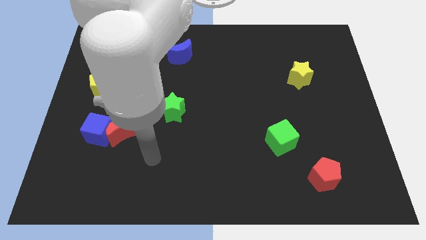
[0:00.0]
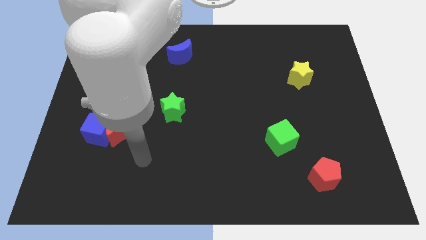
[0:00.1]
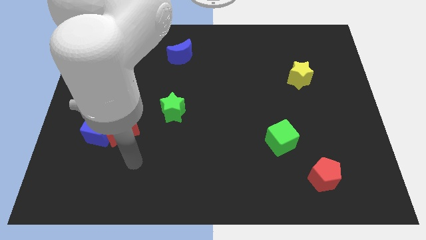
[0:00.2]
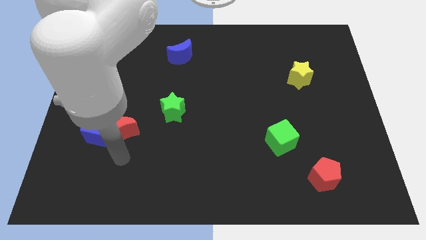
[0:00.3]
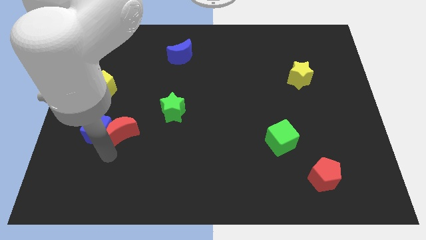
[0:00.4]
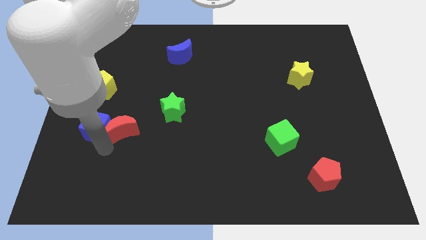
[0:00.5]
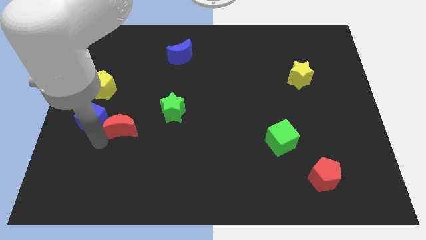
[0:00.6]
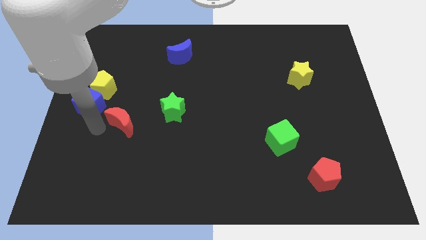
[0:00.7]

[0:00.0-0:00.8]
separate the red moon from the blue cube

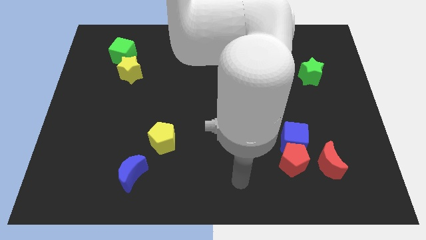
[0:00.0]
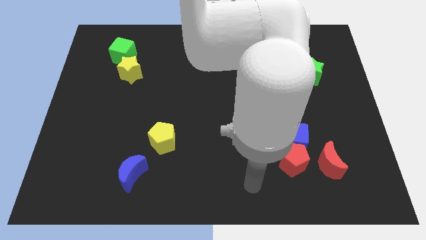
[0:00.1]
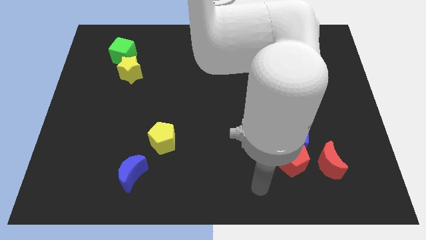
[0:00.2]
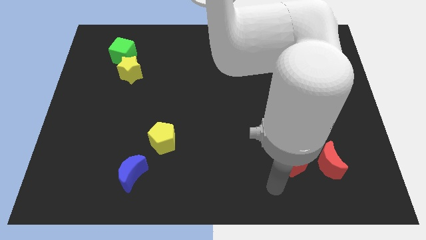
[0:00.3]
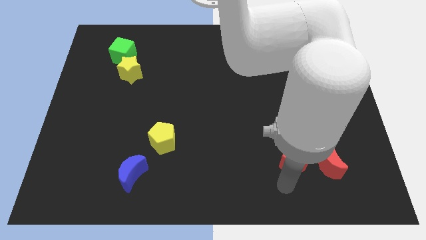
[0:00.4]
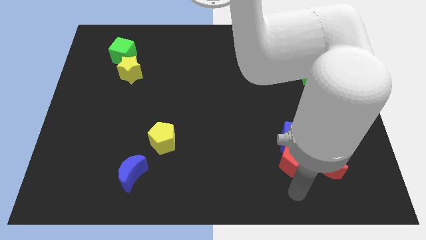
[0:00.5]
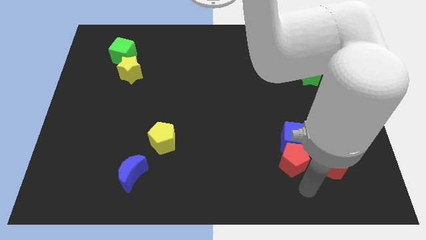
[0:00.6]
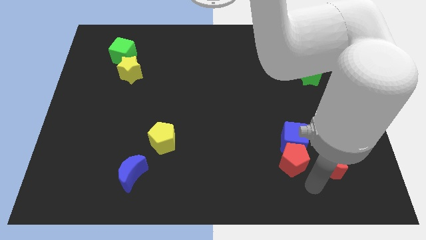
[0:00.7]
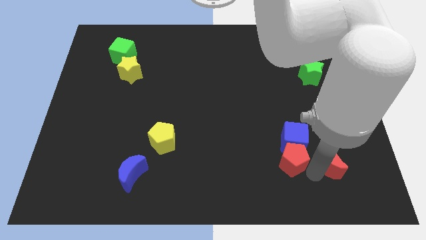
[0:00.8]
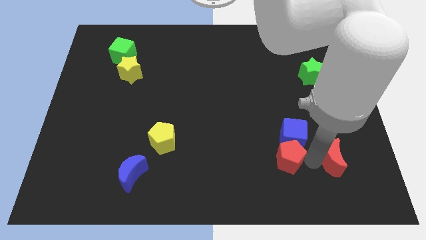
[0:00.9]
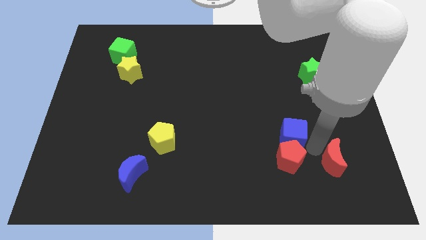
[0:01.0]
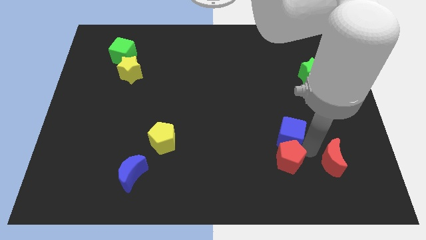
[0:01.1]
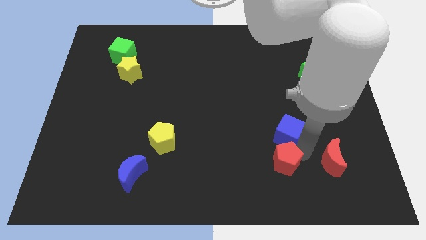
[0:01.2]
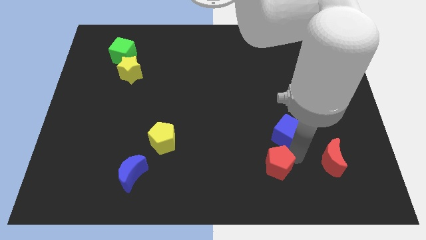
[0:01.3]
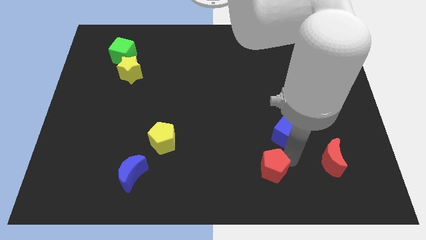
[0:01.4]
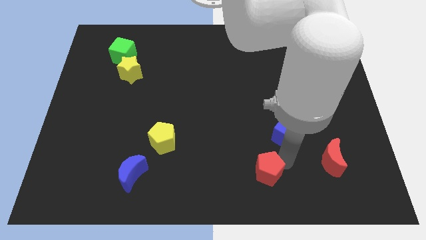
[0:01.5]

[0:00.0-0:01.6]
move the red pentagon away from the blue cube and red moon

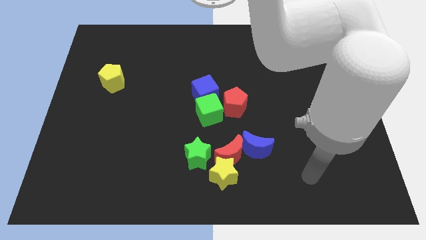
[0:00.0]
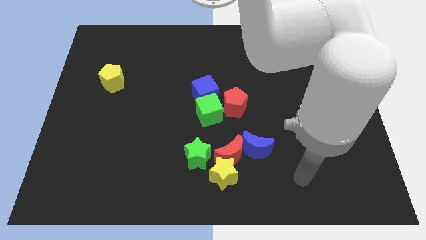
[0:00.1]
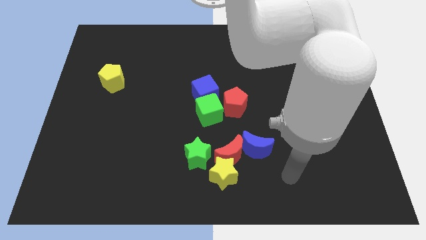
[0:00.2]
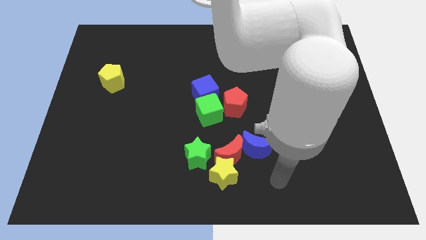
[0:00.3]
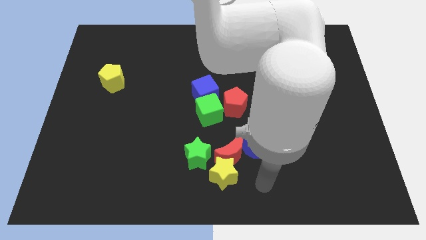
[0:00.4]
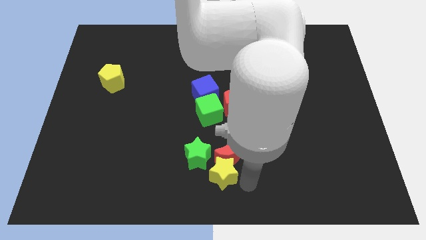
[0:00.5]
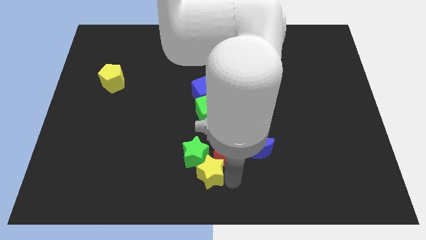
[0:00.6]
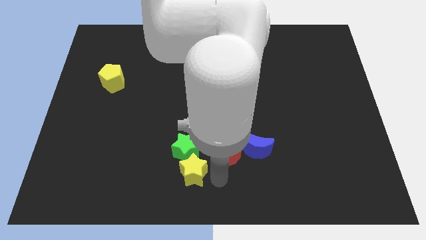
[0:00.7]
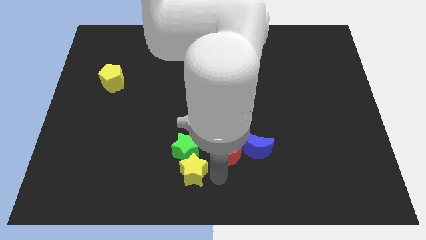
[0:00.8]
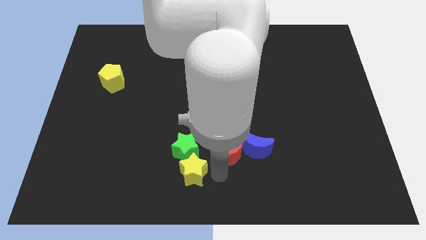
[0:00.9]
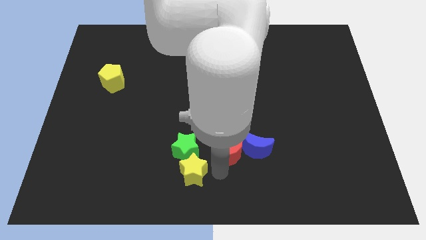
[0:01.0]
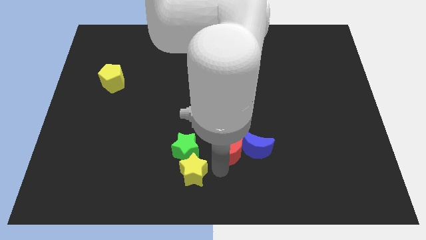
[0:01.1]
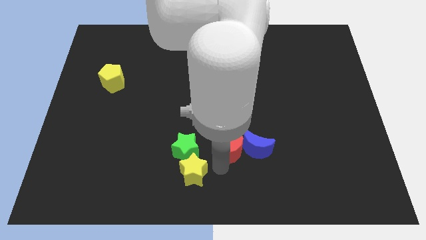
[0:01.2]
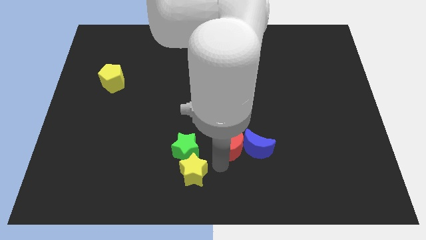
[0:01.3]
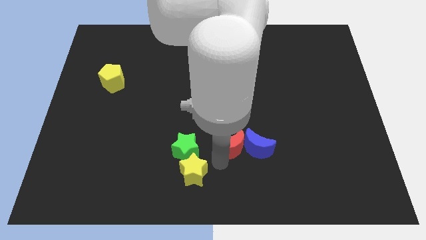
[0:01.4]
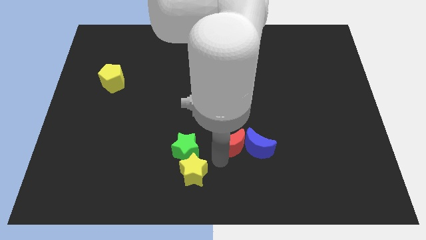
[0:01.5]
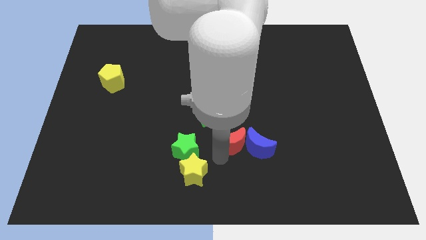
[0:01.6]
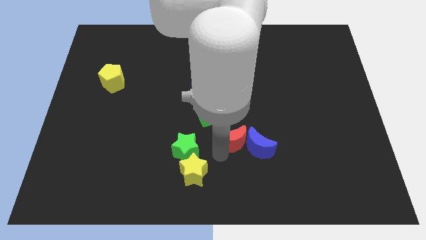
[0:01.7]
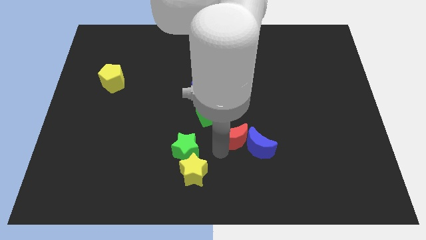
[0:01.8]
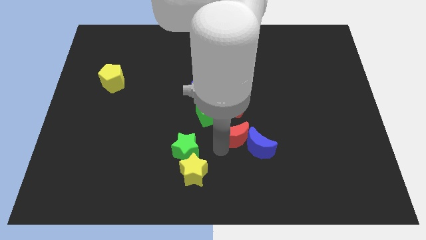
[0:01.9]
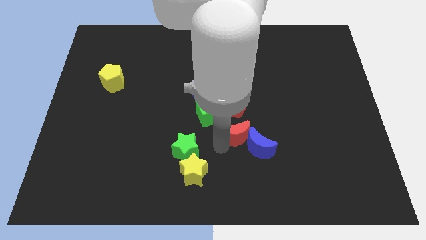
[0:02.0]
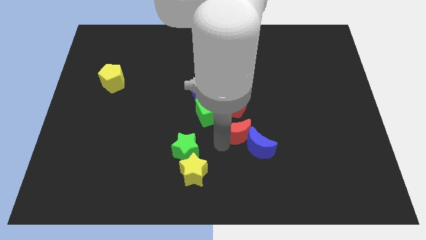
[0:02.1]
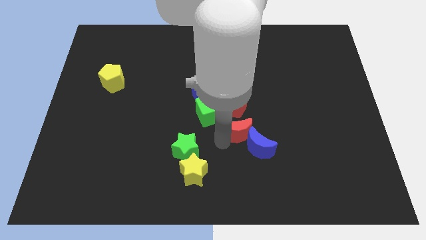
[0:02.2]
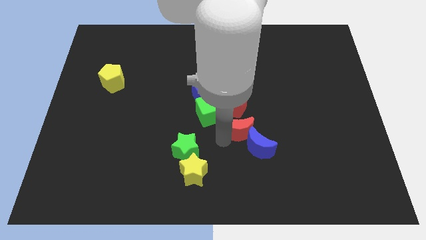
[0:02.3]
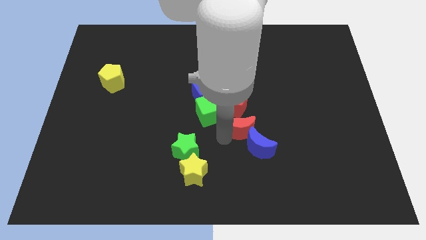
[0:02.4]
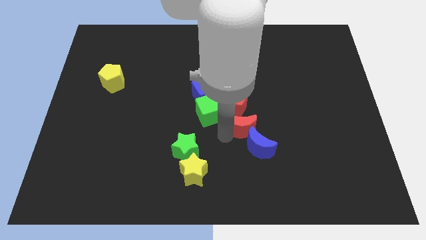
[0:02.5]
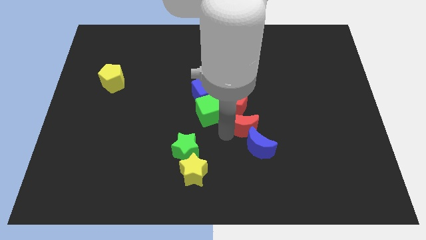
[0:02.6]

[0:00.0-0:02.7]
separate the red moon from the yellow star, blue moon, and green star

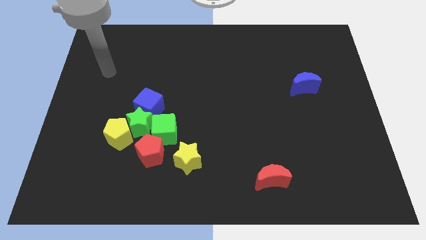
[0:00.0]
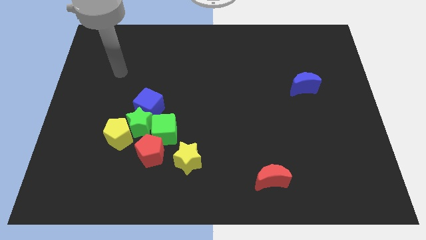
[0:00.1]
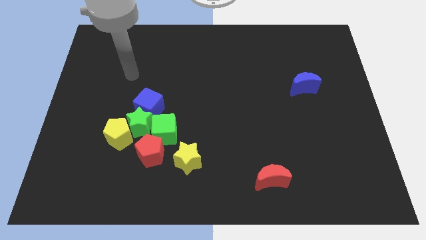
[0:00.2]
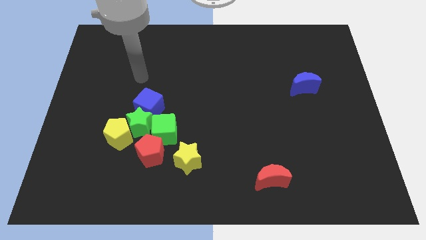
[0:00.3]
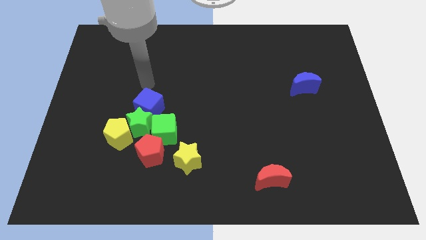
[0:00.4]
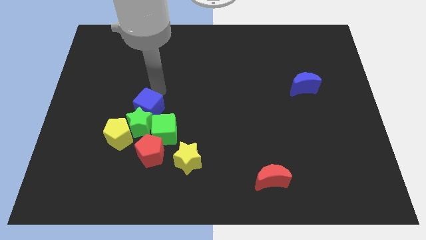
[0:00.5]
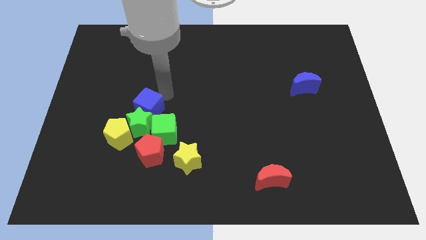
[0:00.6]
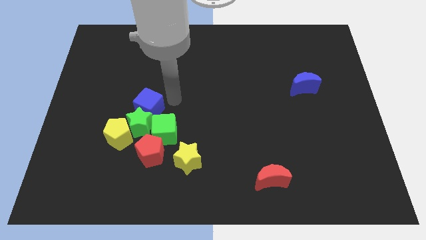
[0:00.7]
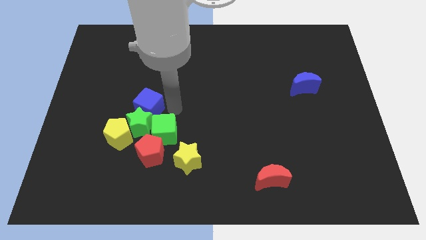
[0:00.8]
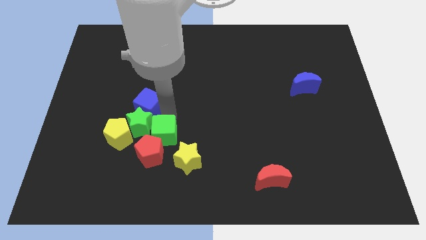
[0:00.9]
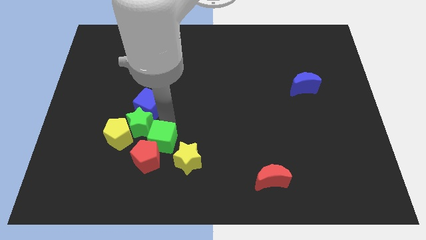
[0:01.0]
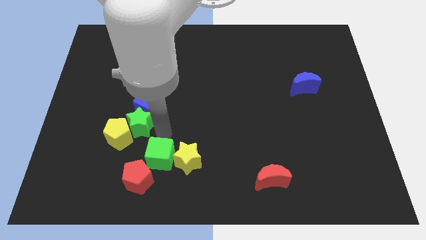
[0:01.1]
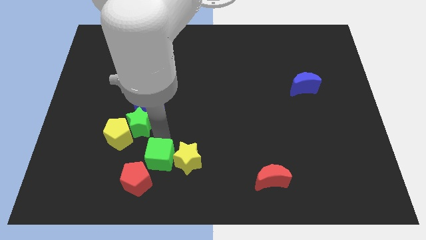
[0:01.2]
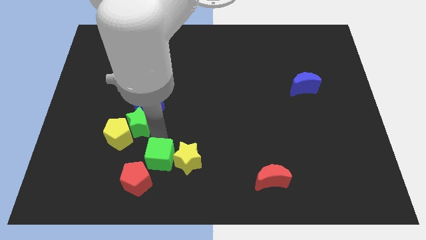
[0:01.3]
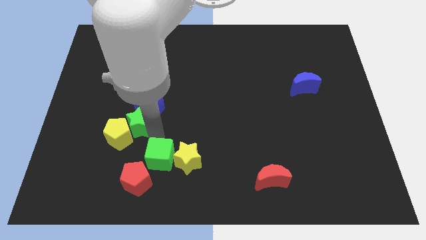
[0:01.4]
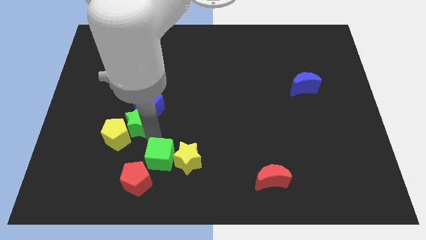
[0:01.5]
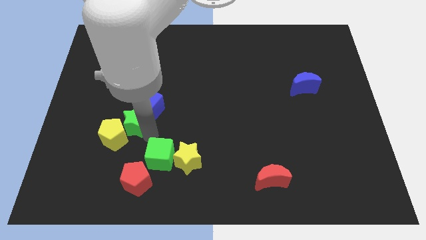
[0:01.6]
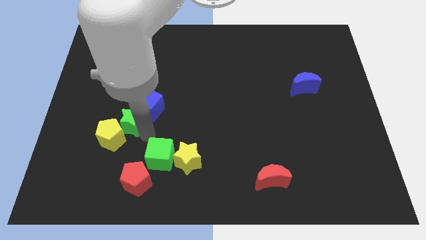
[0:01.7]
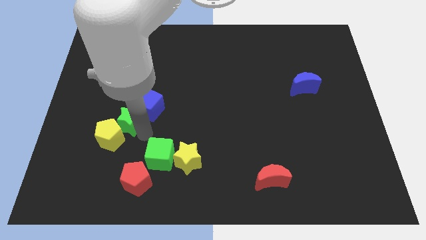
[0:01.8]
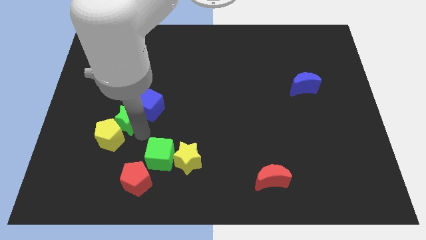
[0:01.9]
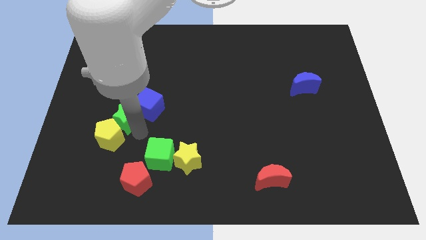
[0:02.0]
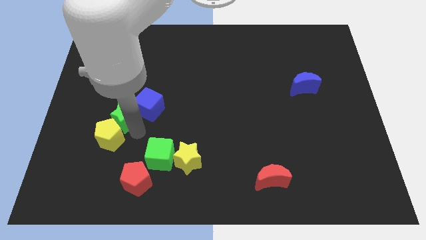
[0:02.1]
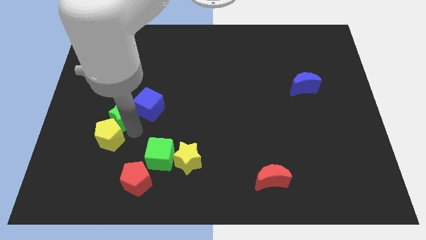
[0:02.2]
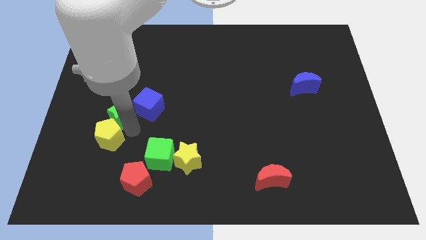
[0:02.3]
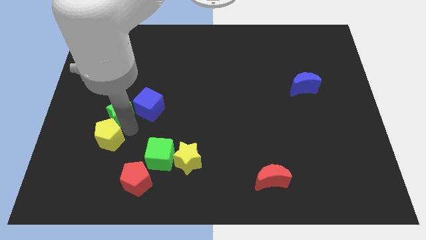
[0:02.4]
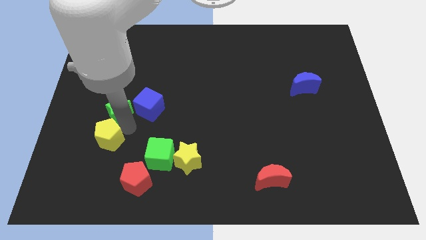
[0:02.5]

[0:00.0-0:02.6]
pull the green star apart from the group

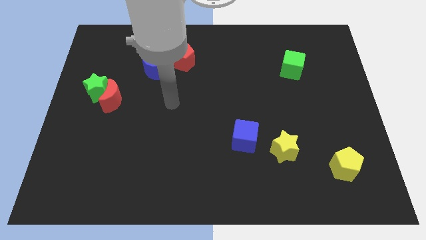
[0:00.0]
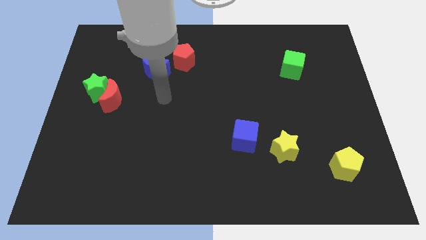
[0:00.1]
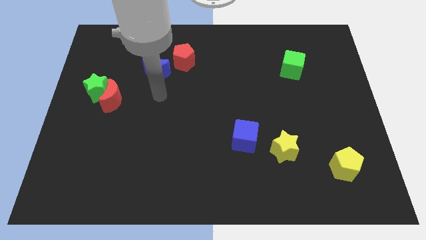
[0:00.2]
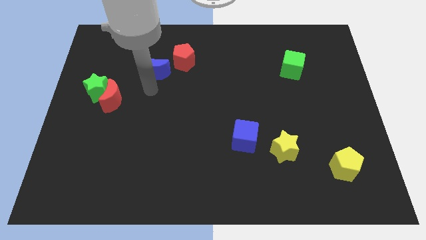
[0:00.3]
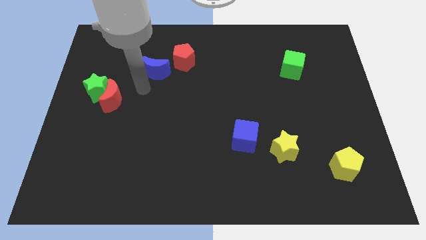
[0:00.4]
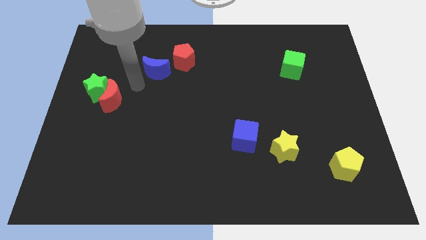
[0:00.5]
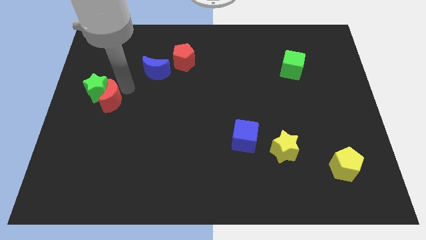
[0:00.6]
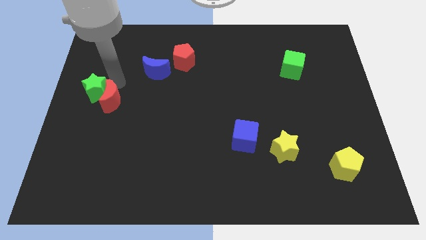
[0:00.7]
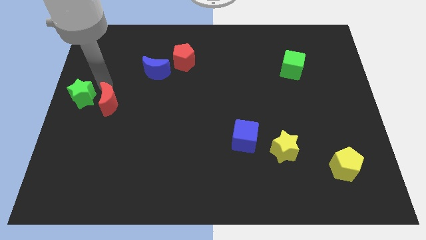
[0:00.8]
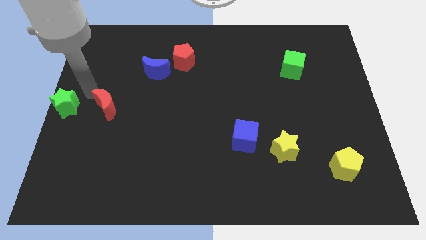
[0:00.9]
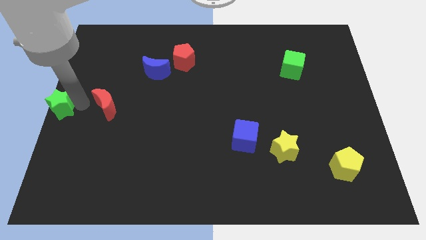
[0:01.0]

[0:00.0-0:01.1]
separate the red moon from the green star

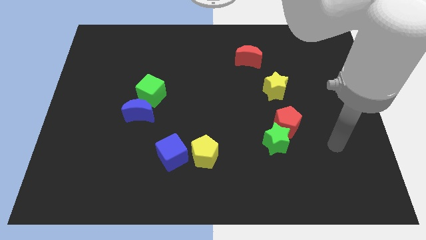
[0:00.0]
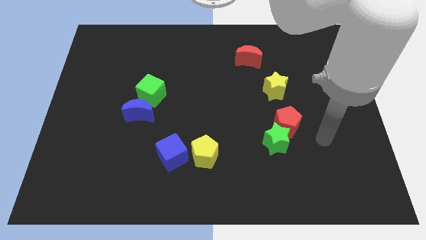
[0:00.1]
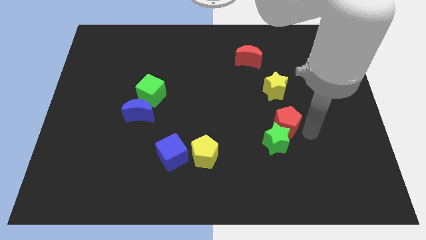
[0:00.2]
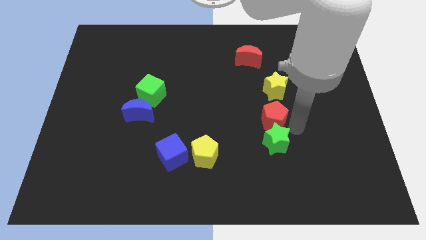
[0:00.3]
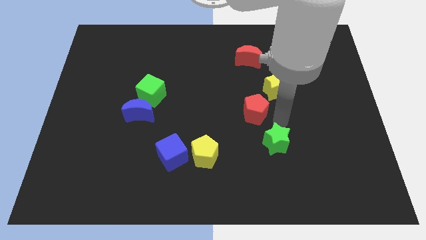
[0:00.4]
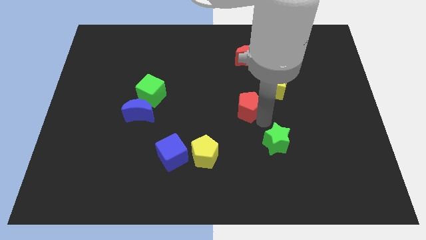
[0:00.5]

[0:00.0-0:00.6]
separate the green star from the red pentagon
